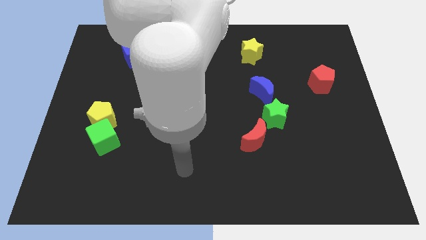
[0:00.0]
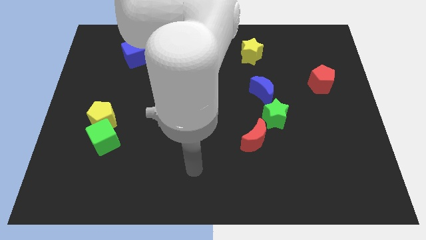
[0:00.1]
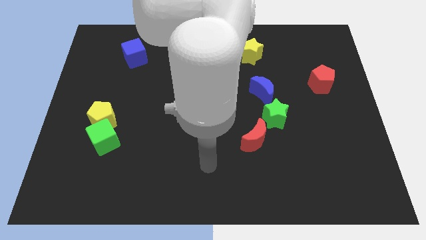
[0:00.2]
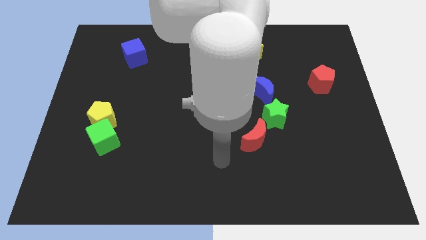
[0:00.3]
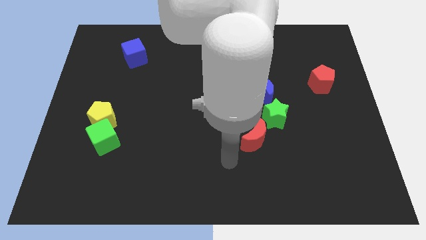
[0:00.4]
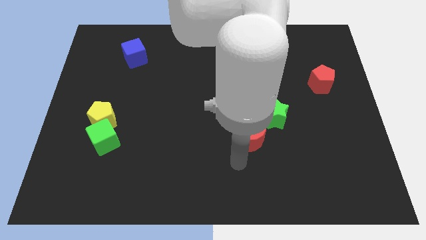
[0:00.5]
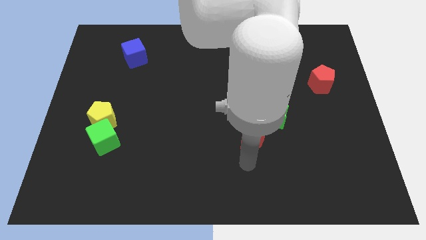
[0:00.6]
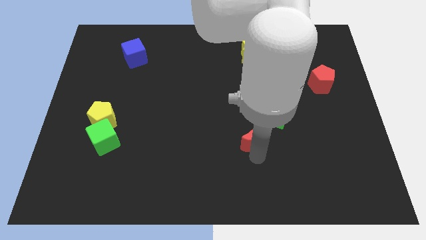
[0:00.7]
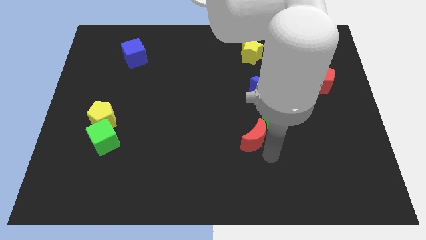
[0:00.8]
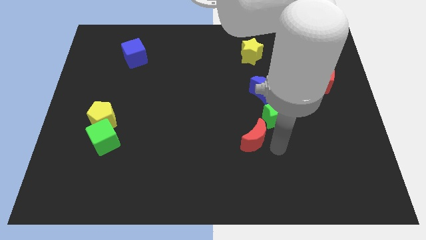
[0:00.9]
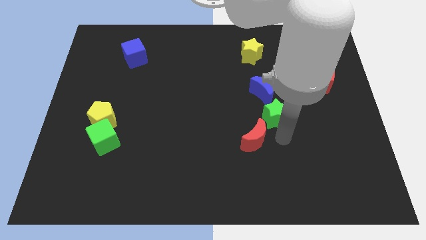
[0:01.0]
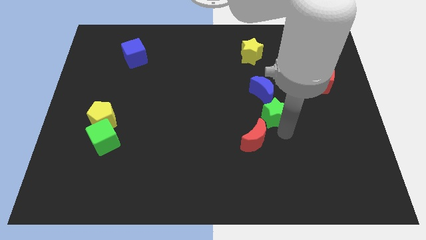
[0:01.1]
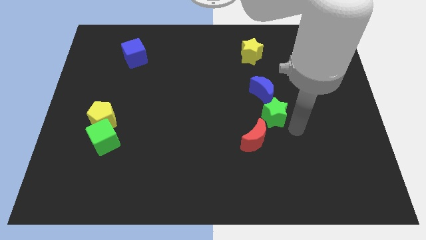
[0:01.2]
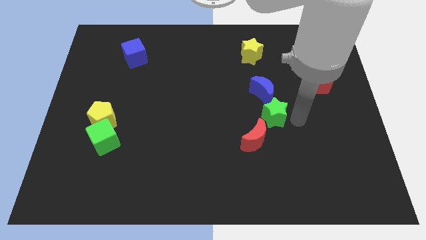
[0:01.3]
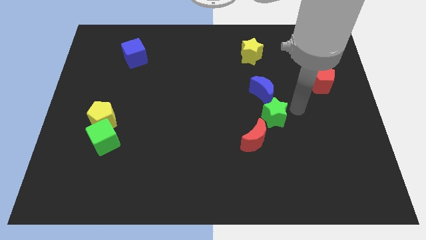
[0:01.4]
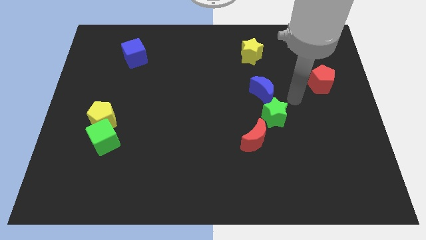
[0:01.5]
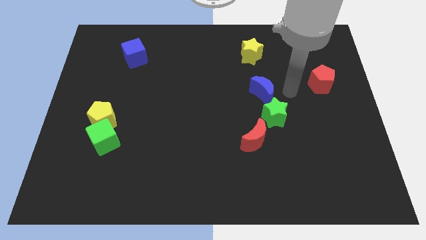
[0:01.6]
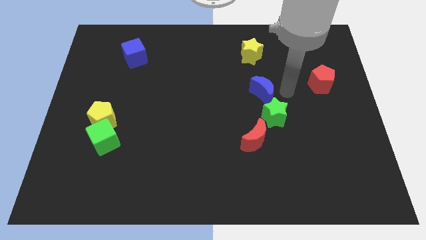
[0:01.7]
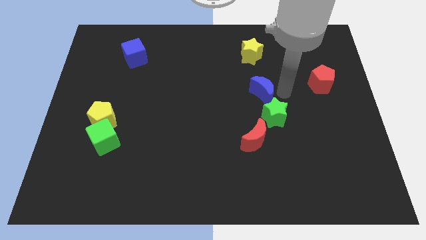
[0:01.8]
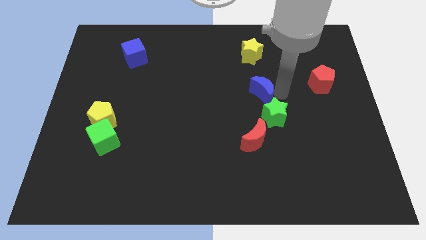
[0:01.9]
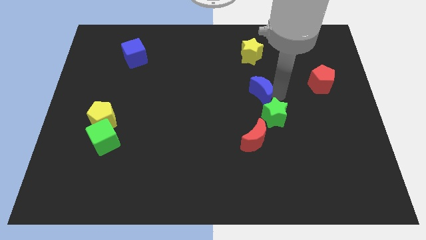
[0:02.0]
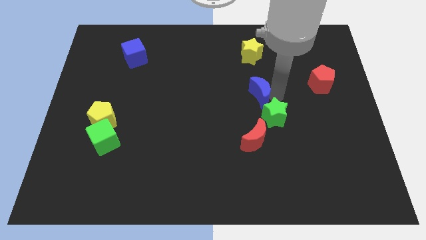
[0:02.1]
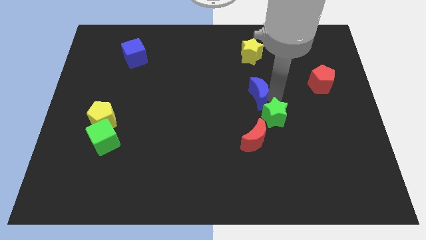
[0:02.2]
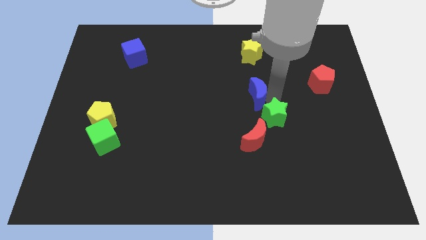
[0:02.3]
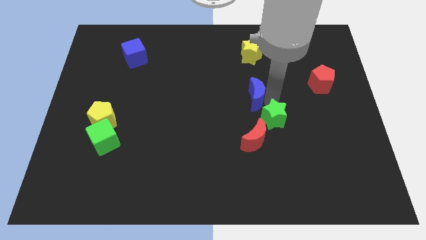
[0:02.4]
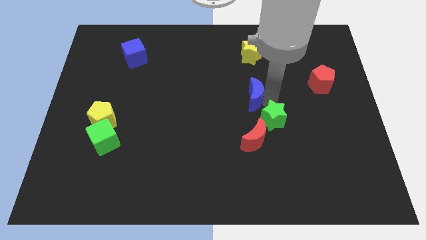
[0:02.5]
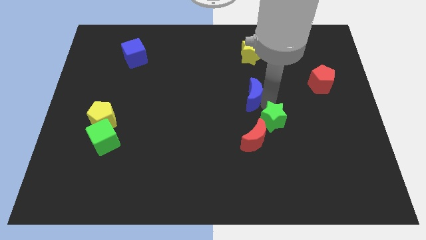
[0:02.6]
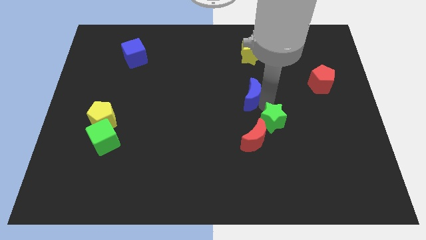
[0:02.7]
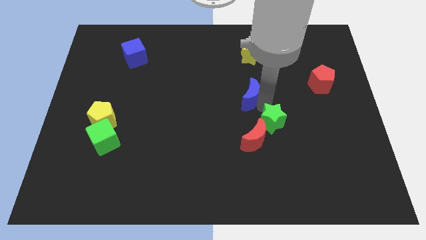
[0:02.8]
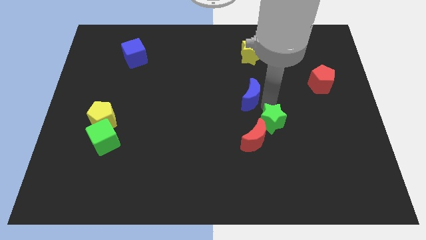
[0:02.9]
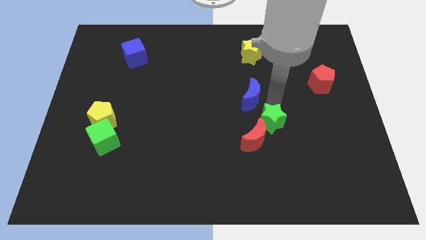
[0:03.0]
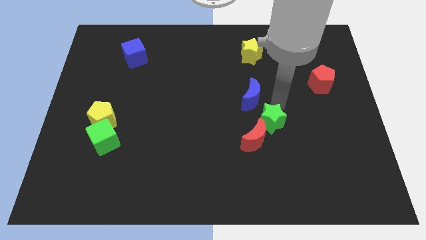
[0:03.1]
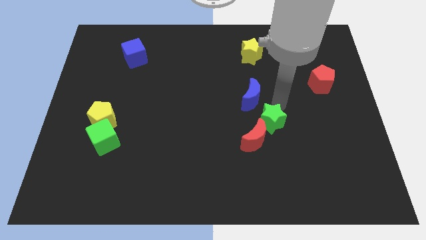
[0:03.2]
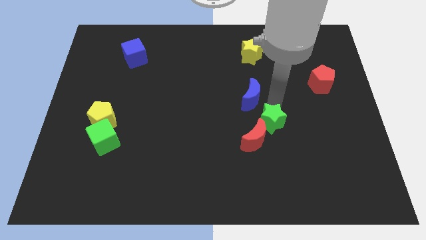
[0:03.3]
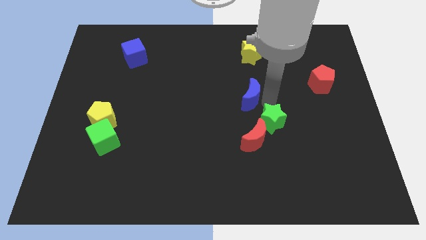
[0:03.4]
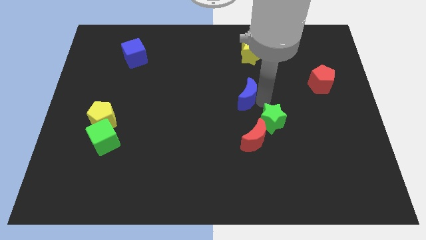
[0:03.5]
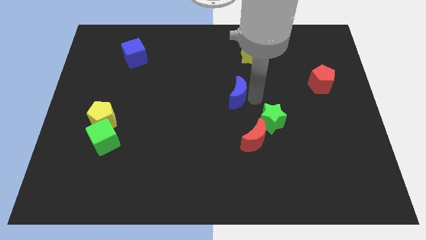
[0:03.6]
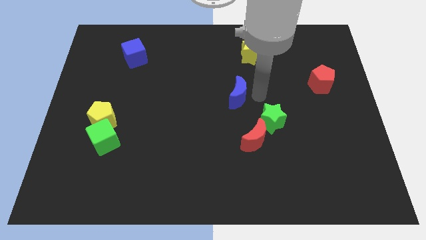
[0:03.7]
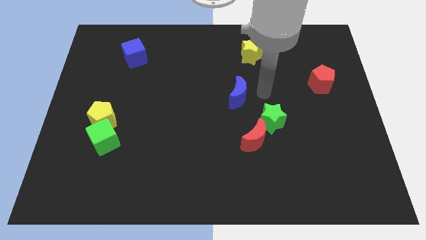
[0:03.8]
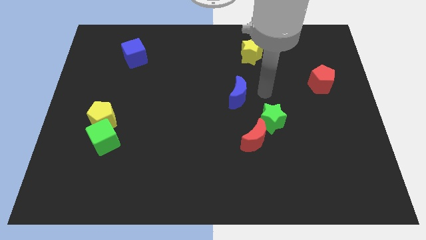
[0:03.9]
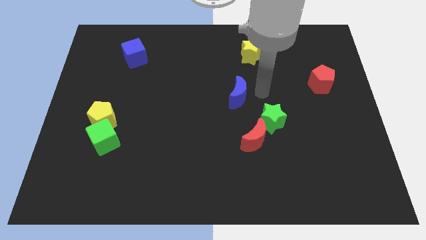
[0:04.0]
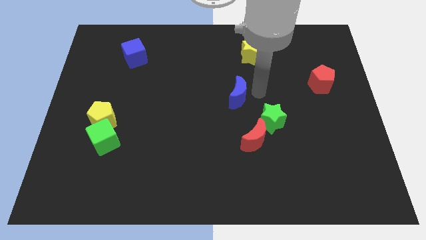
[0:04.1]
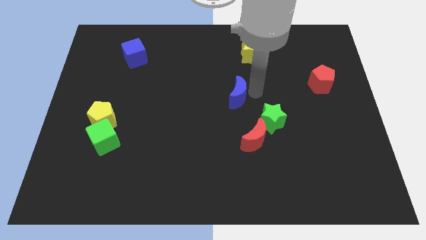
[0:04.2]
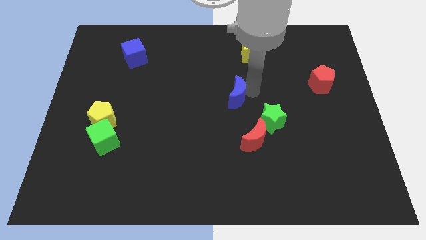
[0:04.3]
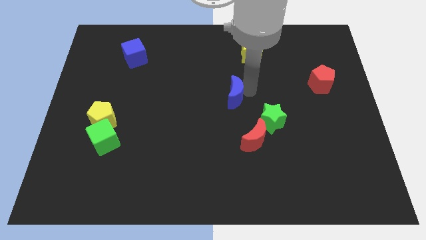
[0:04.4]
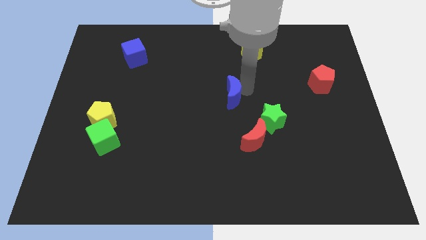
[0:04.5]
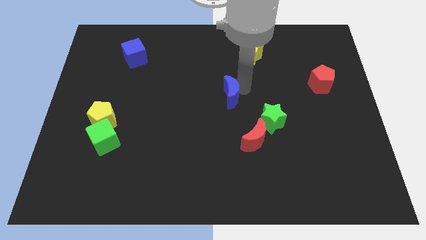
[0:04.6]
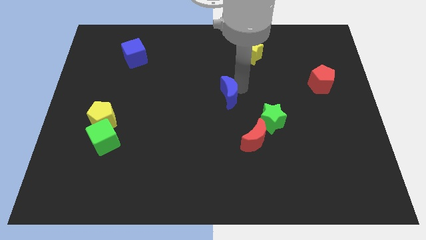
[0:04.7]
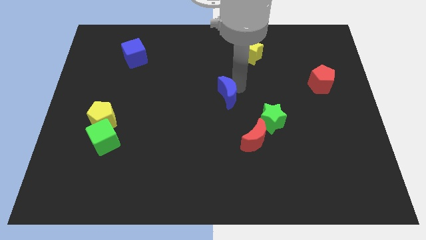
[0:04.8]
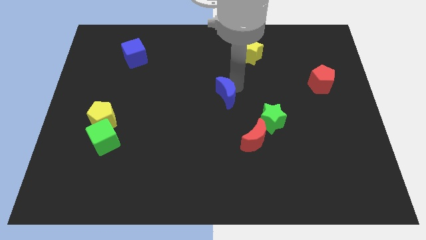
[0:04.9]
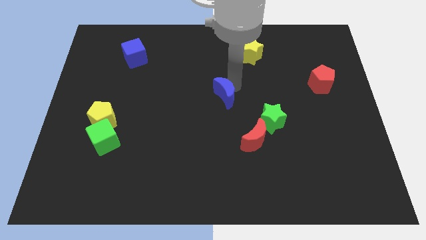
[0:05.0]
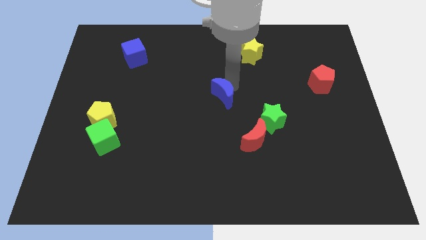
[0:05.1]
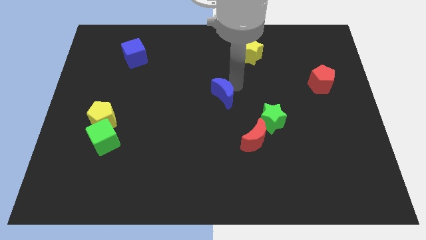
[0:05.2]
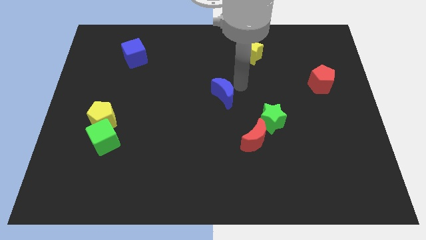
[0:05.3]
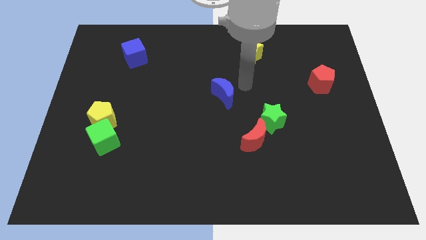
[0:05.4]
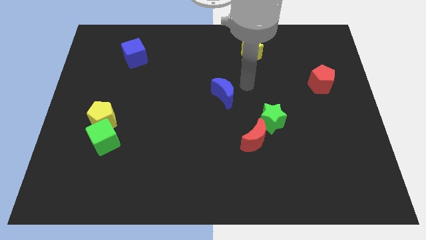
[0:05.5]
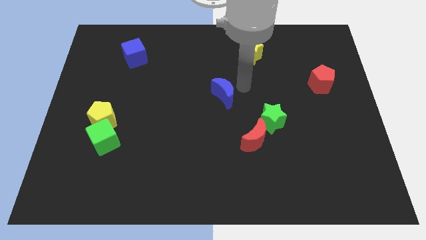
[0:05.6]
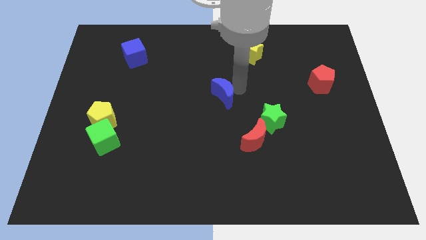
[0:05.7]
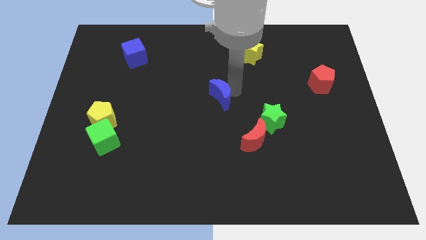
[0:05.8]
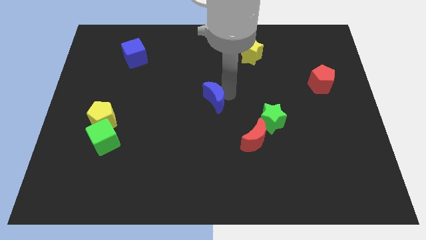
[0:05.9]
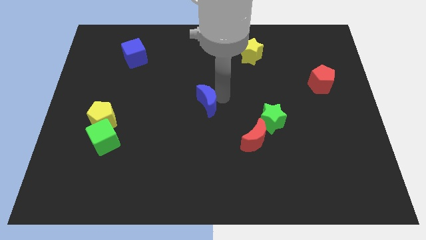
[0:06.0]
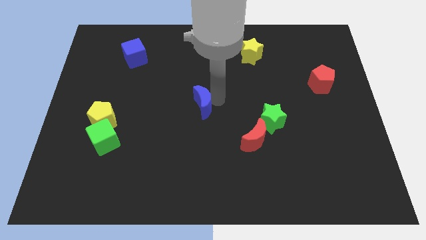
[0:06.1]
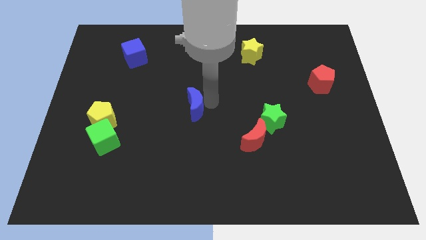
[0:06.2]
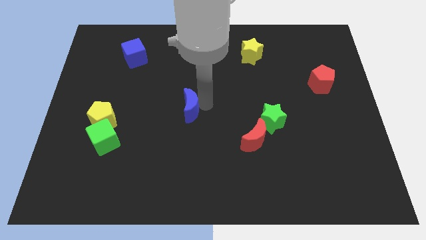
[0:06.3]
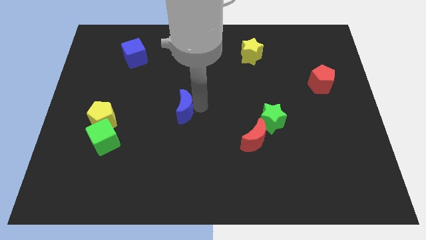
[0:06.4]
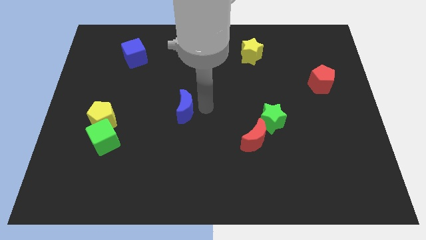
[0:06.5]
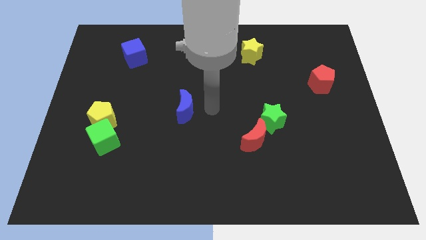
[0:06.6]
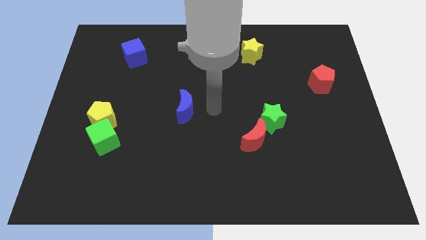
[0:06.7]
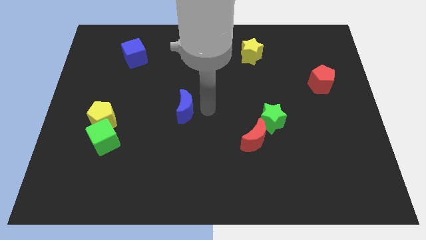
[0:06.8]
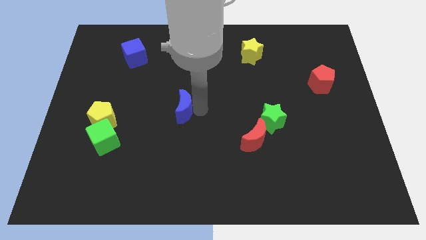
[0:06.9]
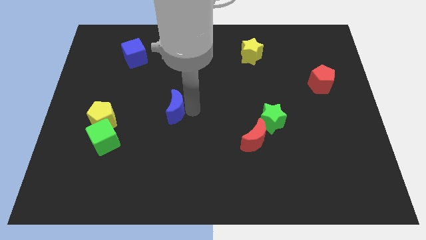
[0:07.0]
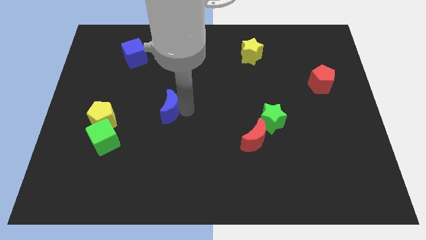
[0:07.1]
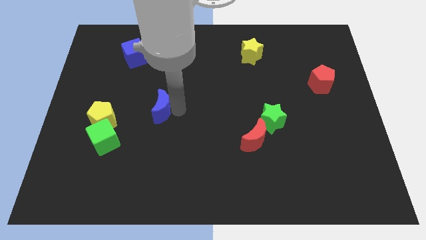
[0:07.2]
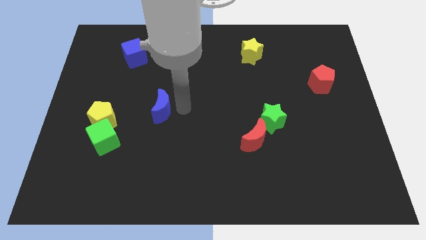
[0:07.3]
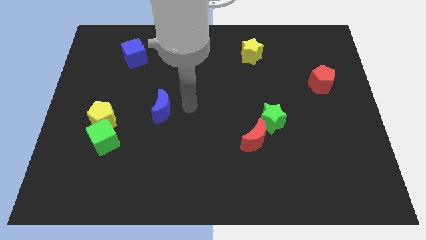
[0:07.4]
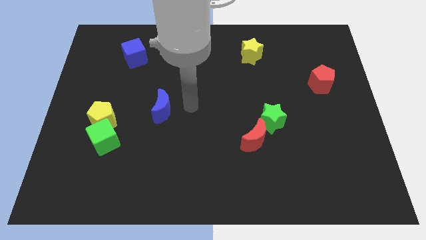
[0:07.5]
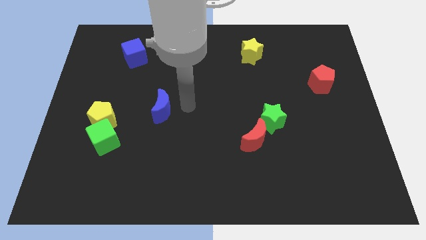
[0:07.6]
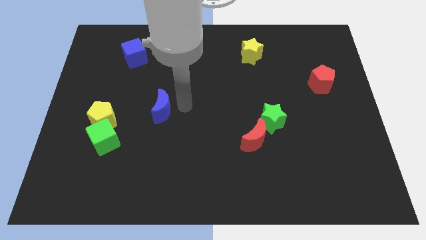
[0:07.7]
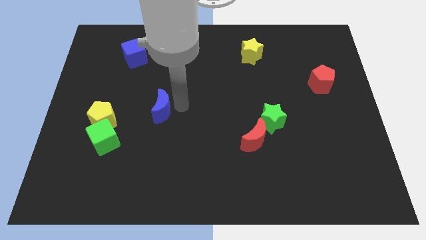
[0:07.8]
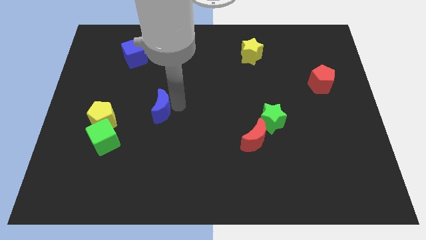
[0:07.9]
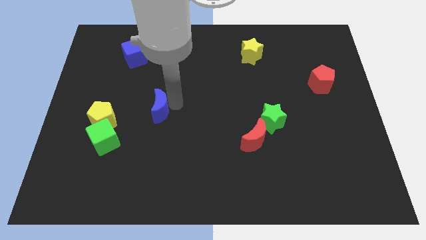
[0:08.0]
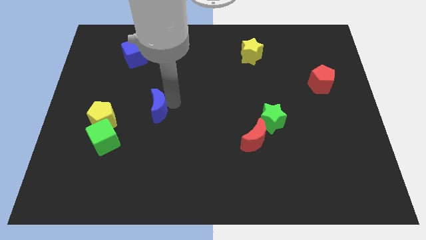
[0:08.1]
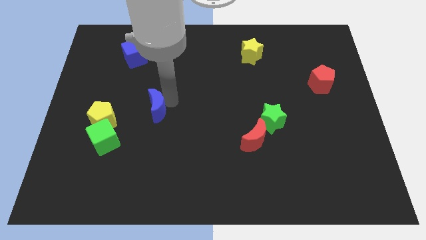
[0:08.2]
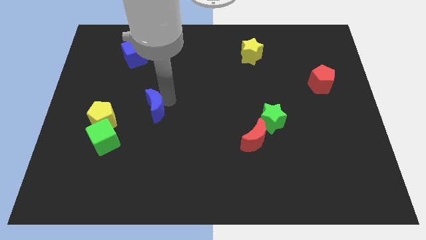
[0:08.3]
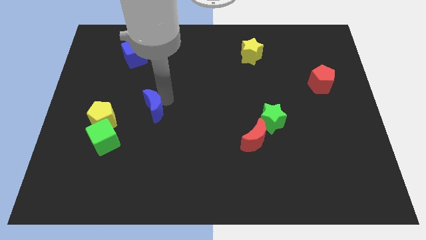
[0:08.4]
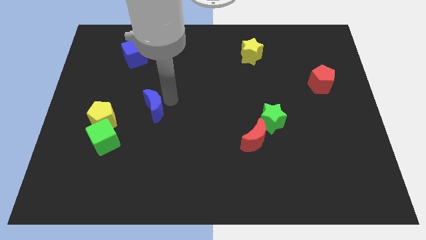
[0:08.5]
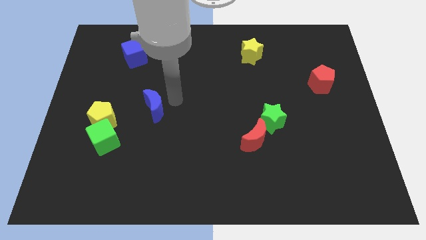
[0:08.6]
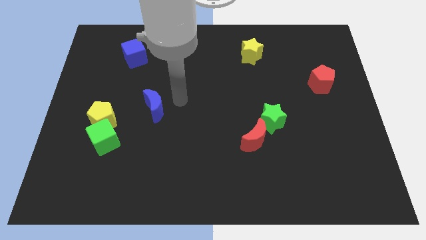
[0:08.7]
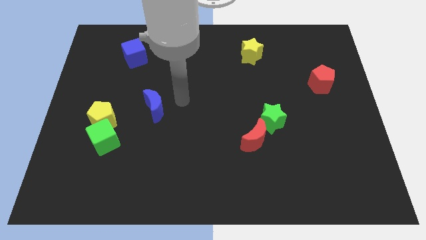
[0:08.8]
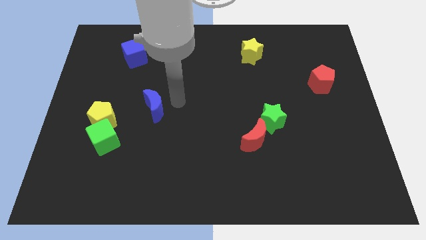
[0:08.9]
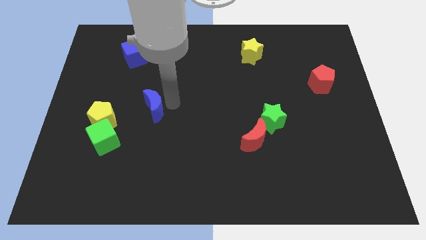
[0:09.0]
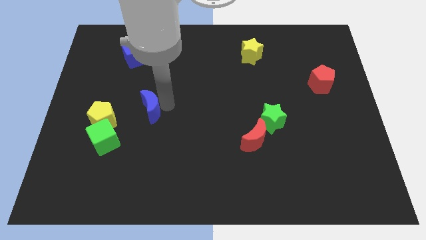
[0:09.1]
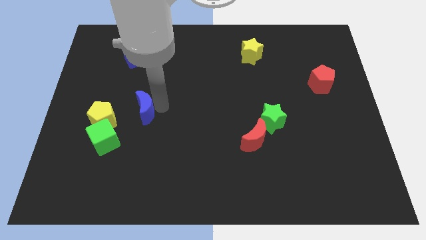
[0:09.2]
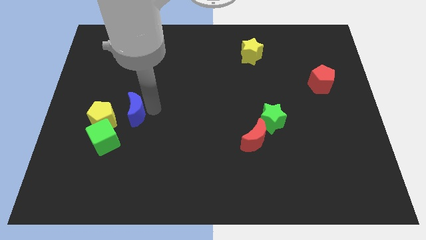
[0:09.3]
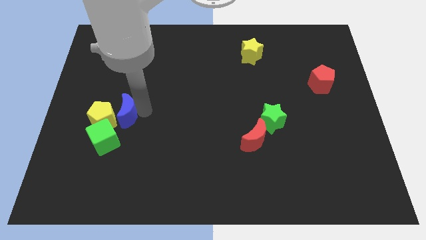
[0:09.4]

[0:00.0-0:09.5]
put the blue moon towards the yellow pentagon
